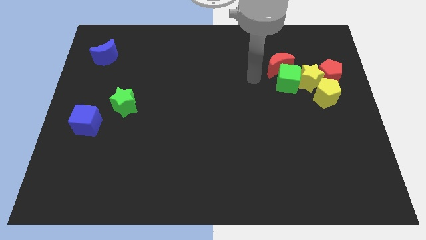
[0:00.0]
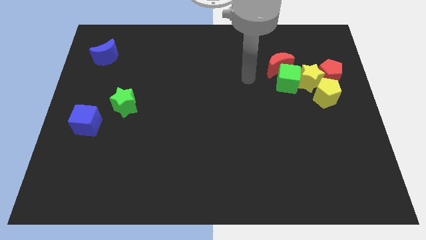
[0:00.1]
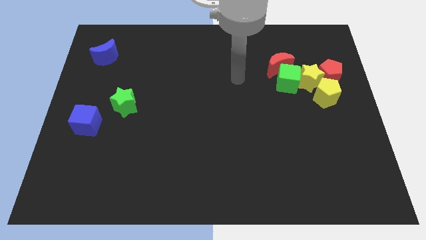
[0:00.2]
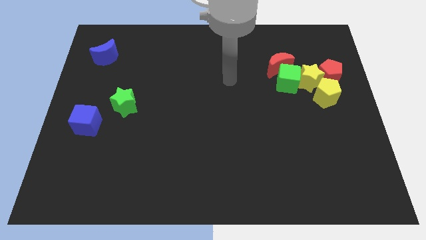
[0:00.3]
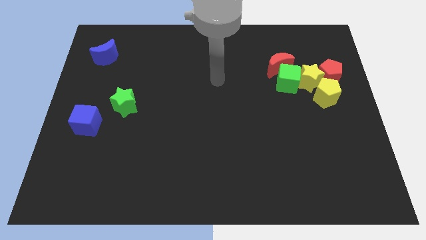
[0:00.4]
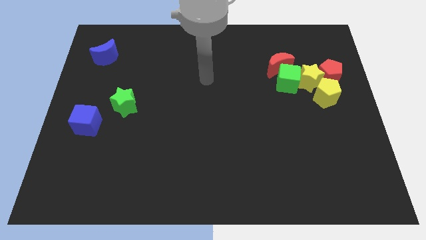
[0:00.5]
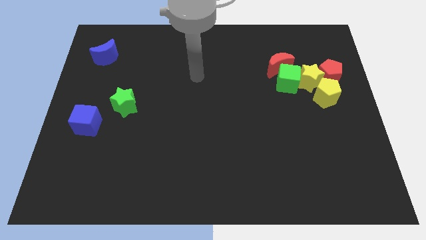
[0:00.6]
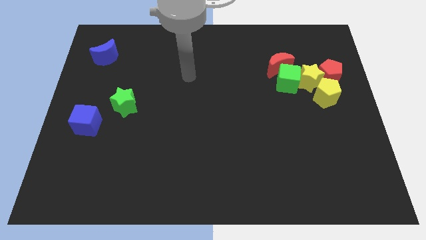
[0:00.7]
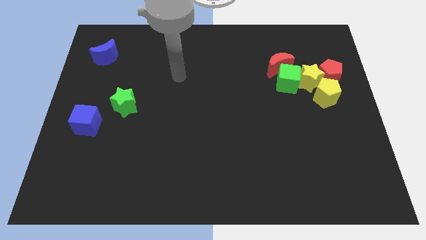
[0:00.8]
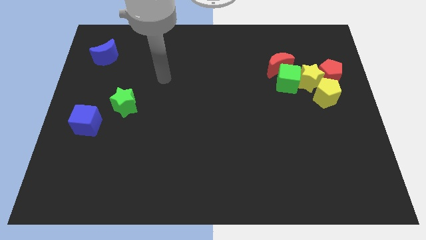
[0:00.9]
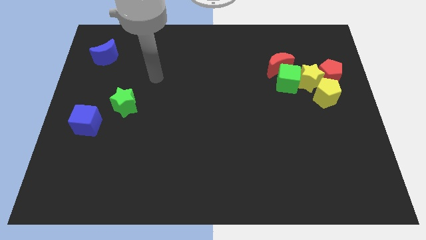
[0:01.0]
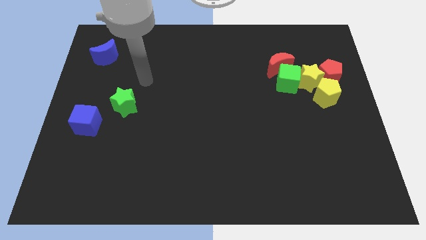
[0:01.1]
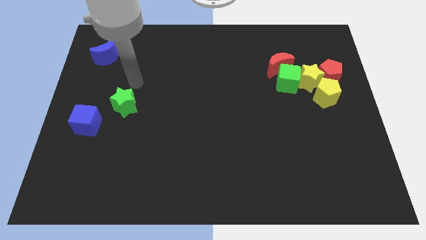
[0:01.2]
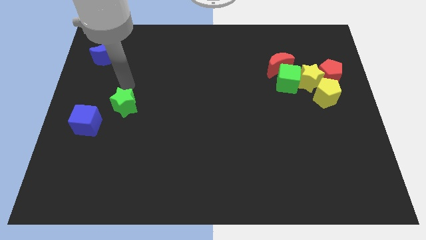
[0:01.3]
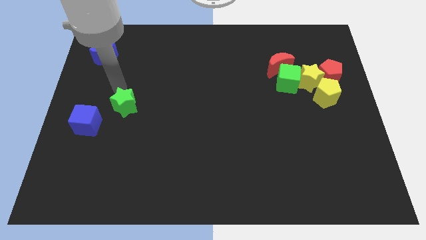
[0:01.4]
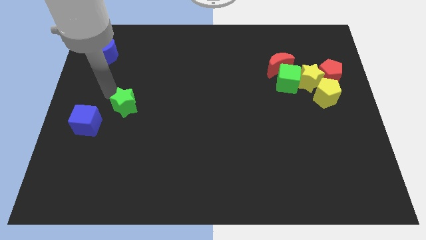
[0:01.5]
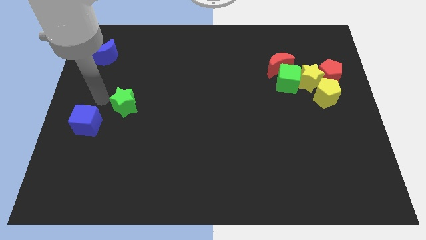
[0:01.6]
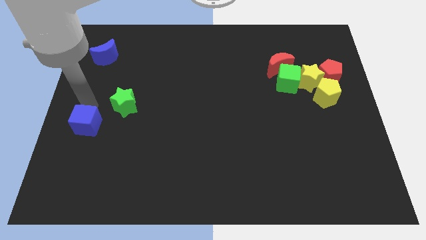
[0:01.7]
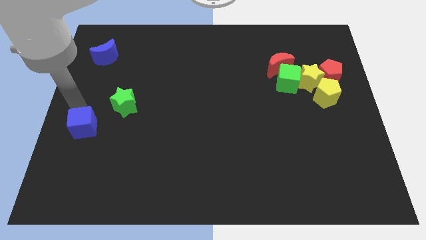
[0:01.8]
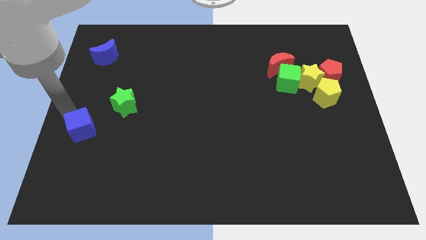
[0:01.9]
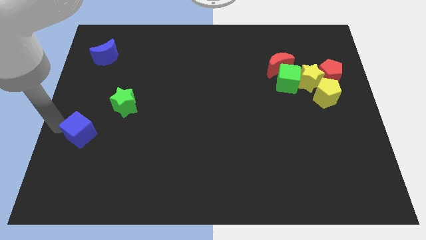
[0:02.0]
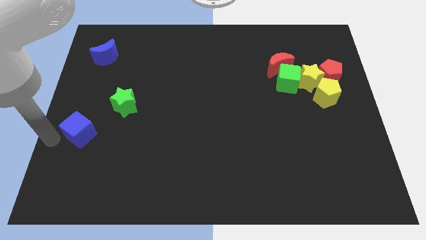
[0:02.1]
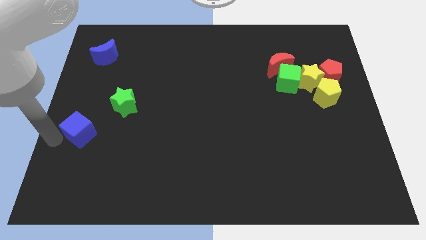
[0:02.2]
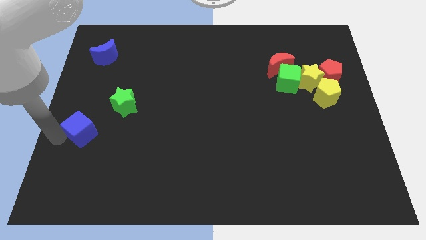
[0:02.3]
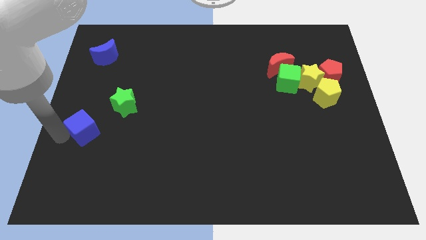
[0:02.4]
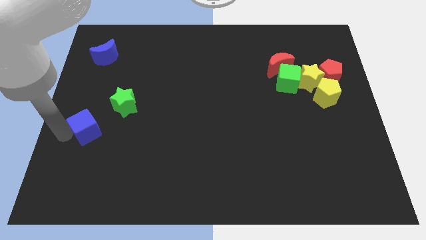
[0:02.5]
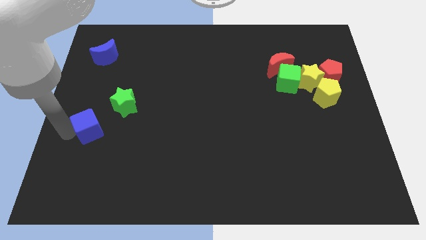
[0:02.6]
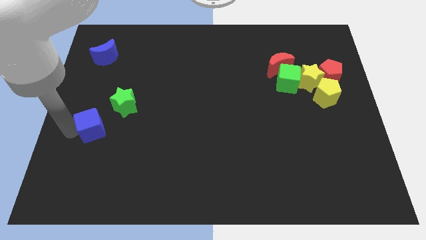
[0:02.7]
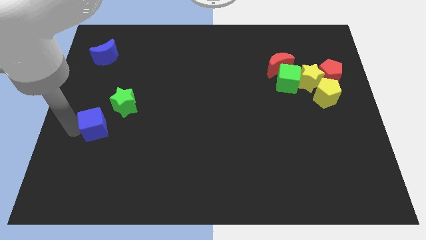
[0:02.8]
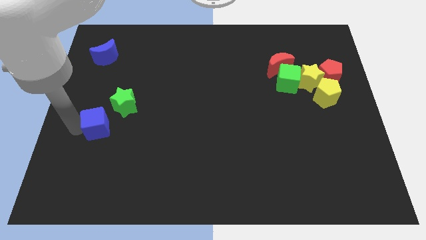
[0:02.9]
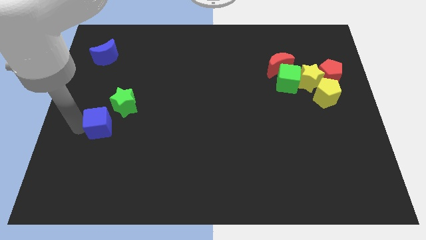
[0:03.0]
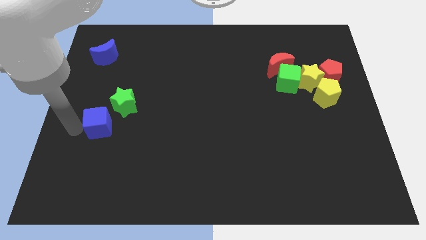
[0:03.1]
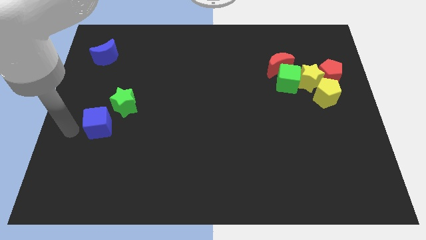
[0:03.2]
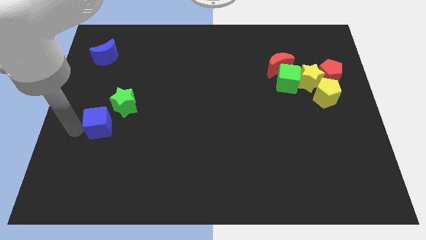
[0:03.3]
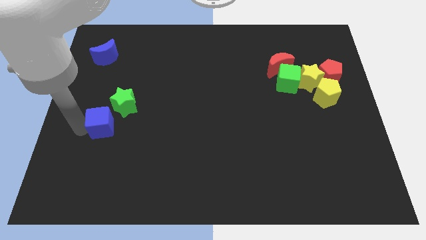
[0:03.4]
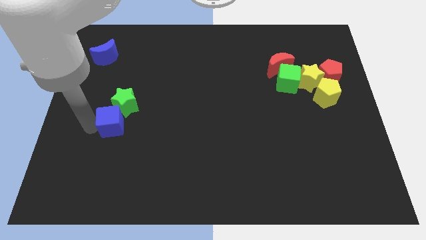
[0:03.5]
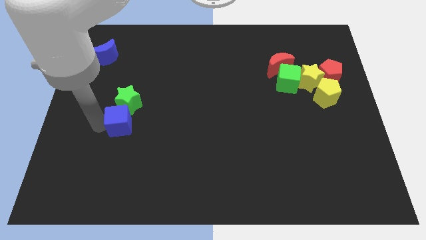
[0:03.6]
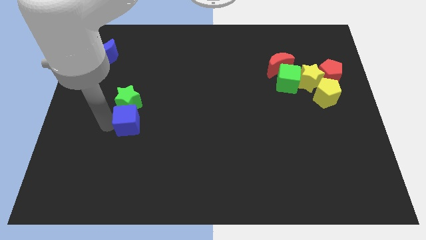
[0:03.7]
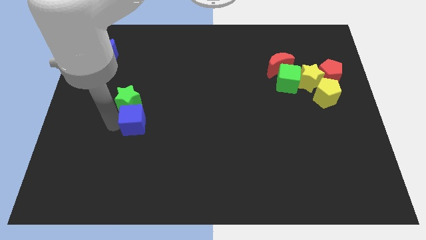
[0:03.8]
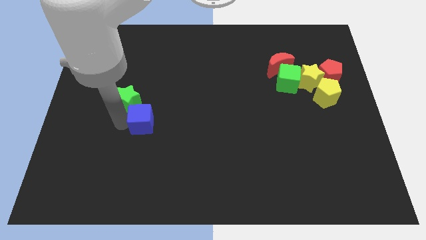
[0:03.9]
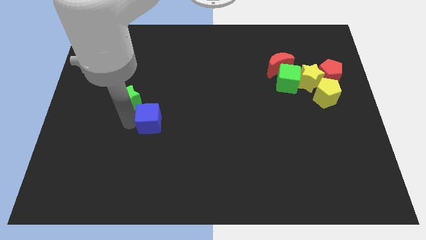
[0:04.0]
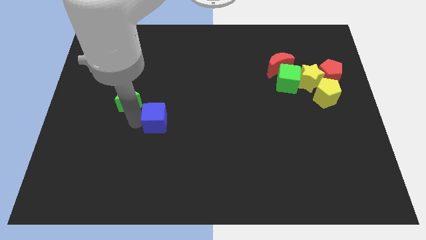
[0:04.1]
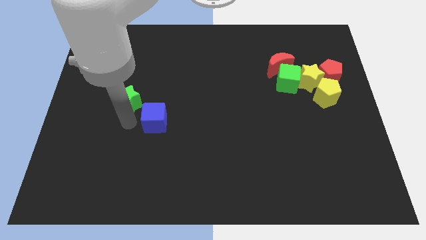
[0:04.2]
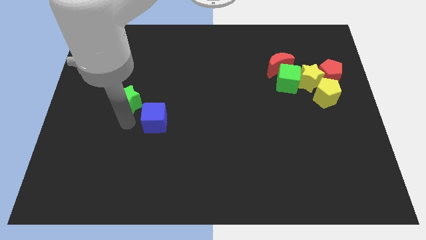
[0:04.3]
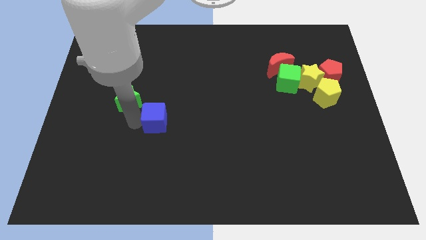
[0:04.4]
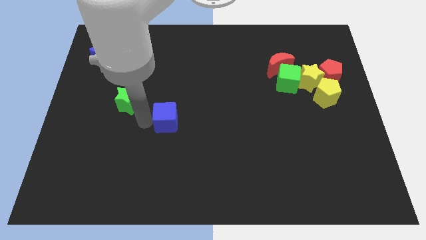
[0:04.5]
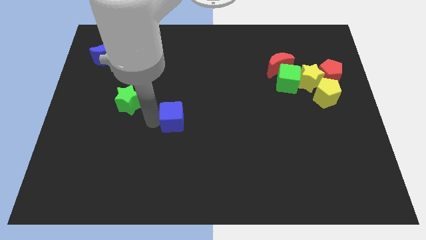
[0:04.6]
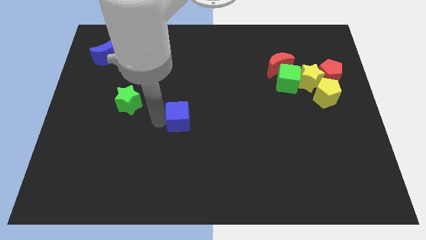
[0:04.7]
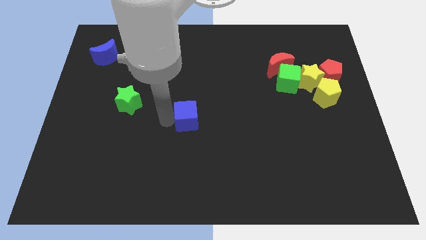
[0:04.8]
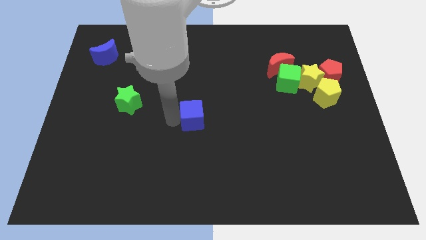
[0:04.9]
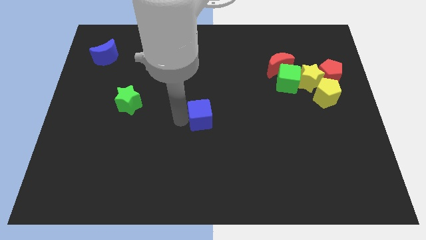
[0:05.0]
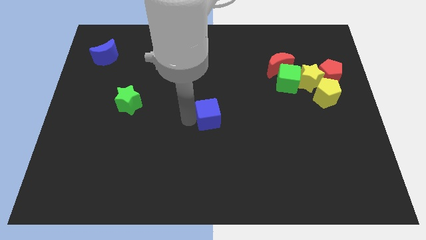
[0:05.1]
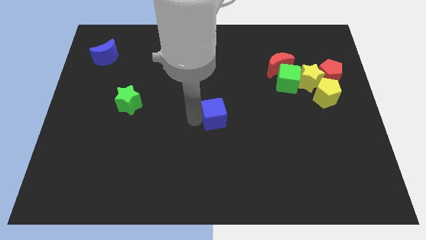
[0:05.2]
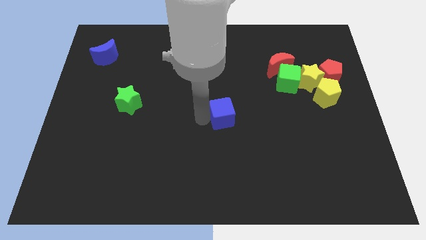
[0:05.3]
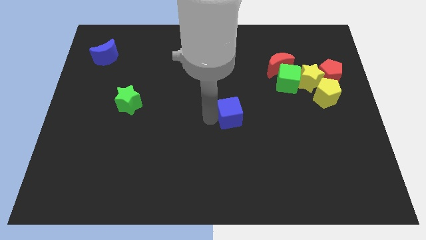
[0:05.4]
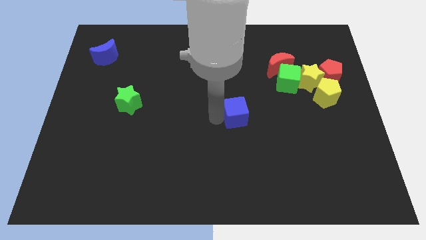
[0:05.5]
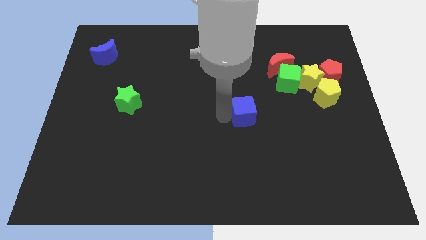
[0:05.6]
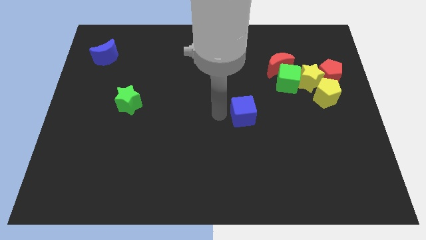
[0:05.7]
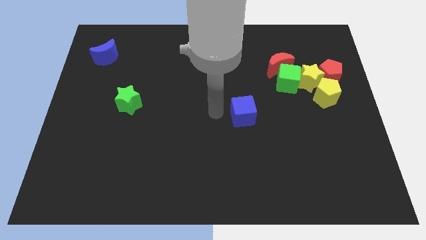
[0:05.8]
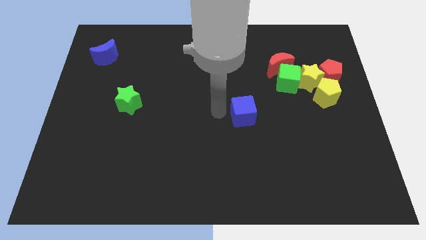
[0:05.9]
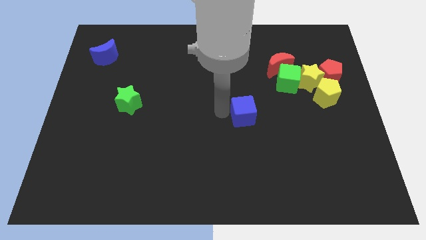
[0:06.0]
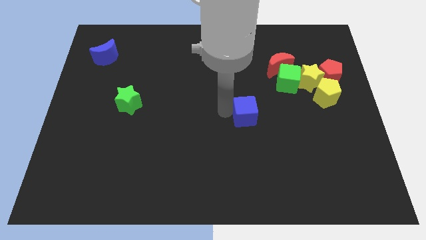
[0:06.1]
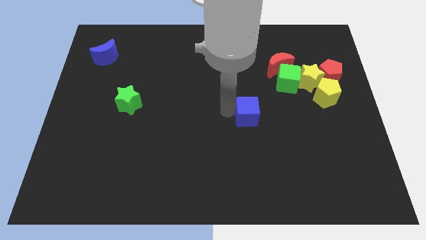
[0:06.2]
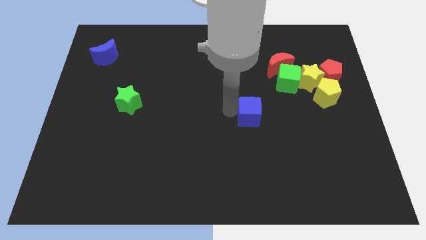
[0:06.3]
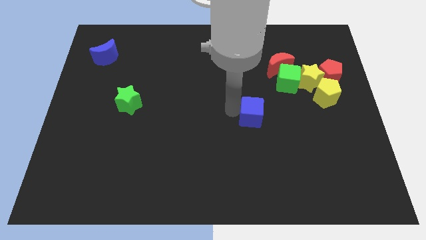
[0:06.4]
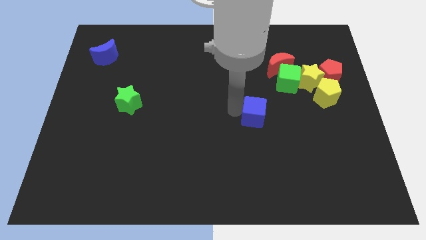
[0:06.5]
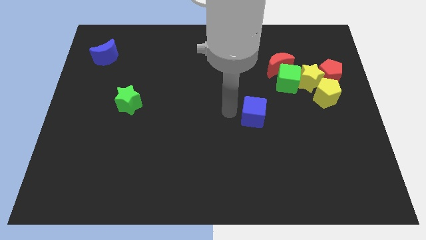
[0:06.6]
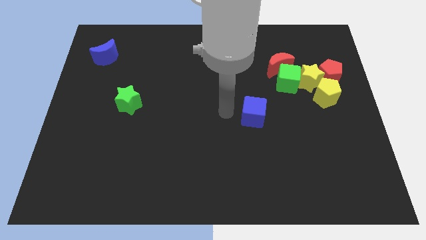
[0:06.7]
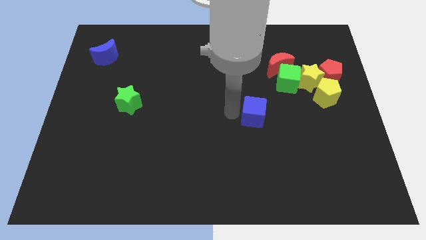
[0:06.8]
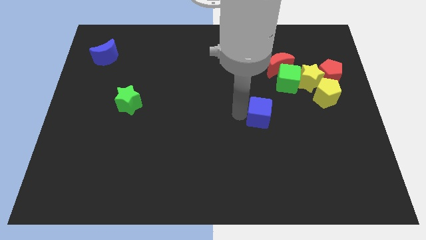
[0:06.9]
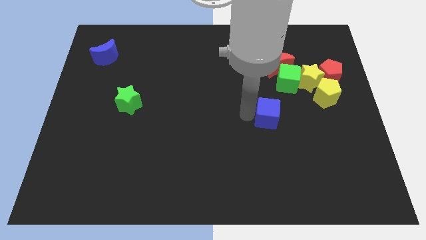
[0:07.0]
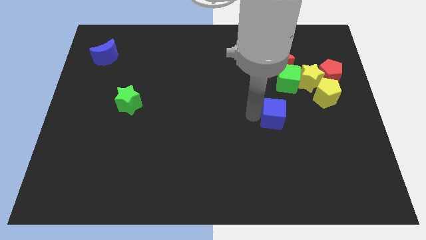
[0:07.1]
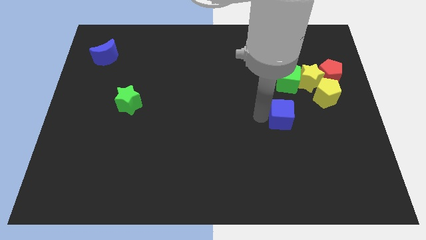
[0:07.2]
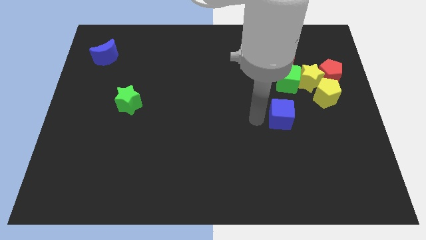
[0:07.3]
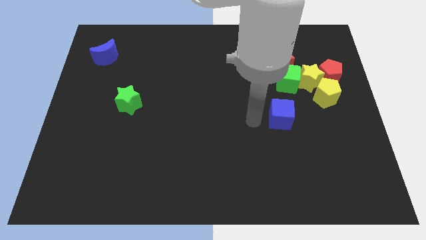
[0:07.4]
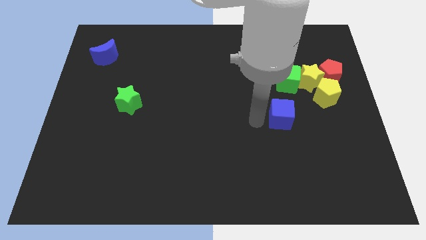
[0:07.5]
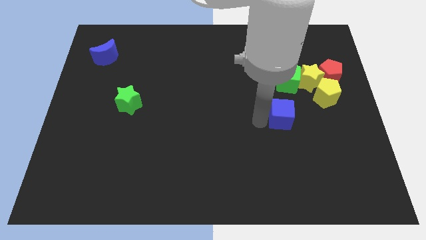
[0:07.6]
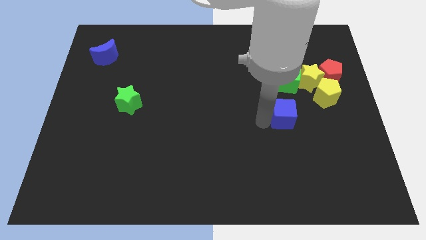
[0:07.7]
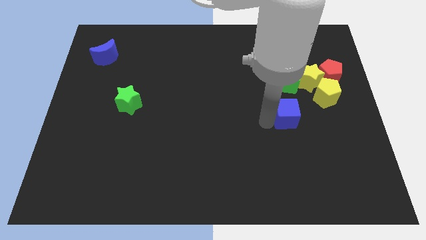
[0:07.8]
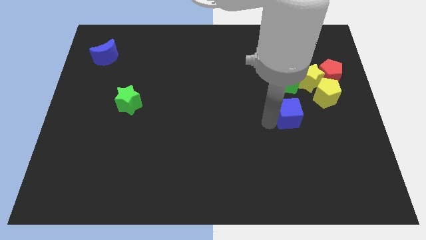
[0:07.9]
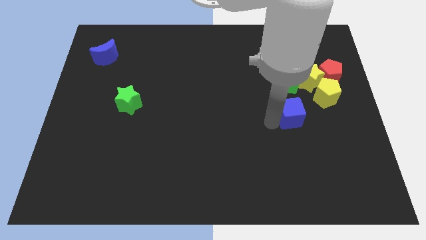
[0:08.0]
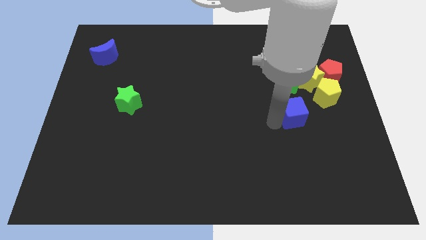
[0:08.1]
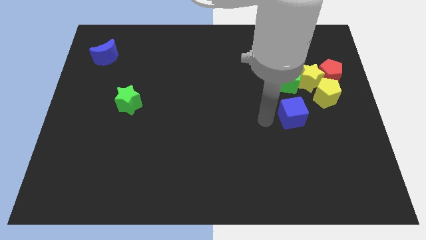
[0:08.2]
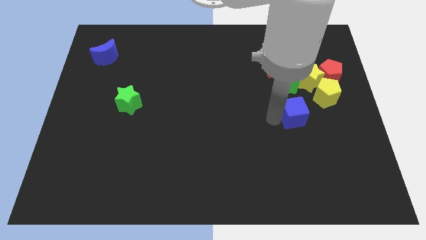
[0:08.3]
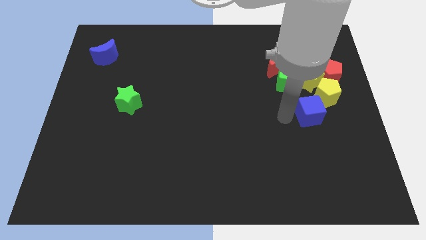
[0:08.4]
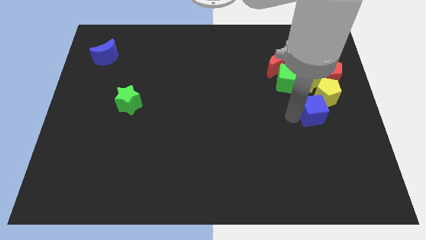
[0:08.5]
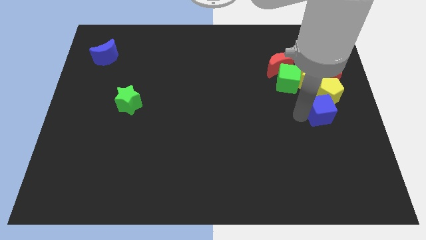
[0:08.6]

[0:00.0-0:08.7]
slide the blue cube below the red pentagon
